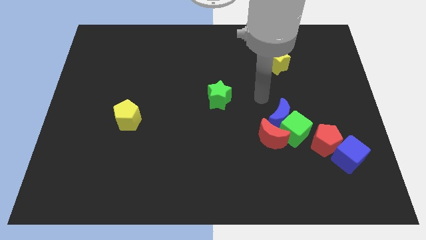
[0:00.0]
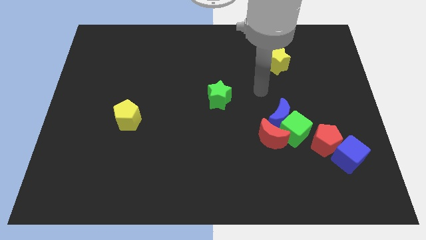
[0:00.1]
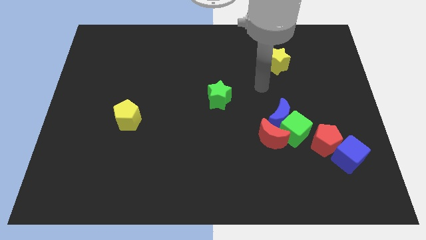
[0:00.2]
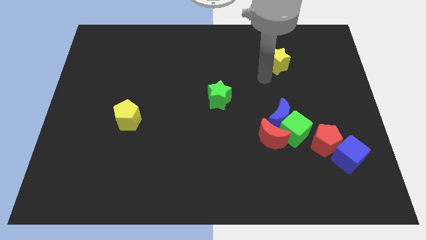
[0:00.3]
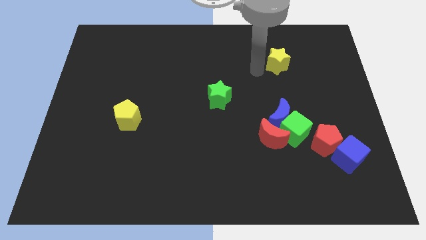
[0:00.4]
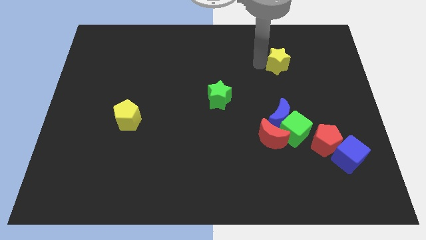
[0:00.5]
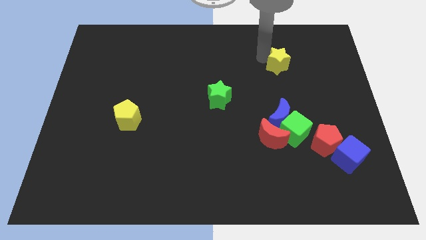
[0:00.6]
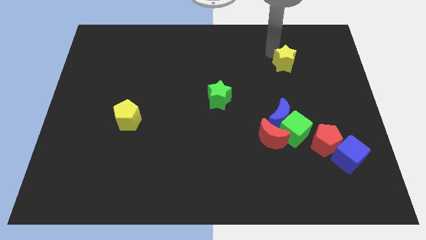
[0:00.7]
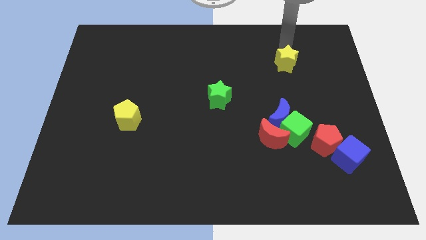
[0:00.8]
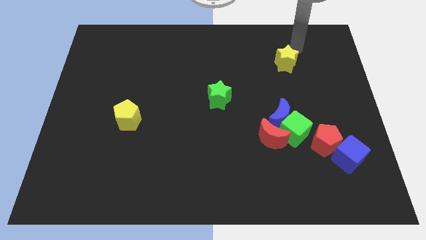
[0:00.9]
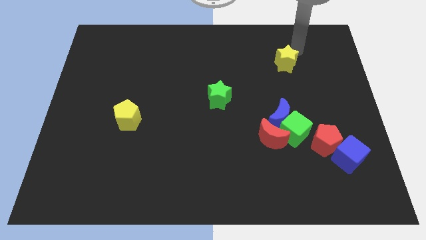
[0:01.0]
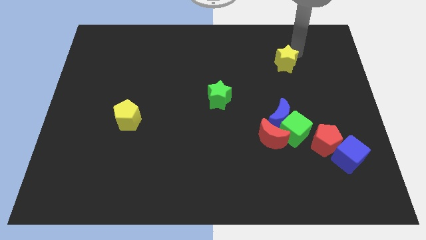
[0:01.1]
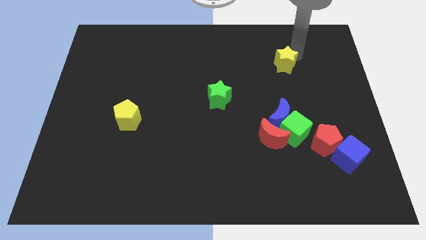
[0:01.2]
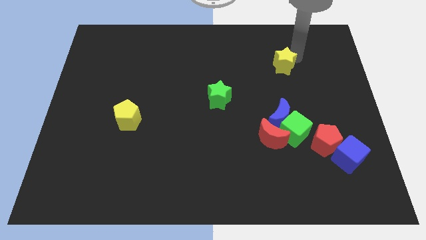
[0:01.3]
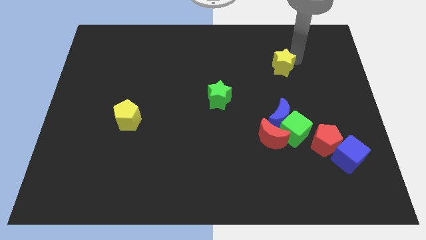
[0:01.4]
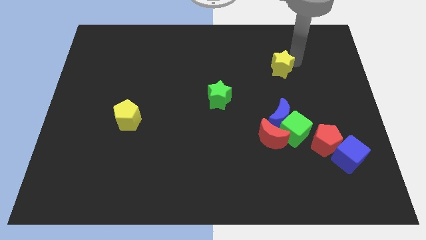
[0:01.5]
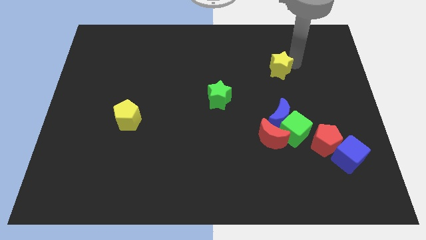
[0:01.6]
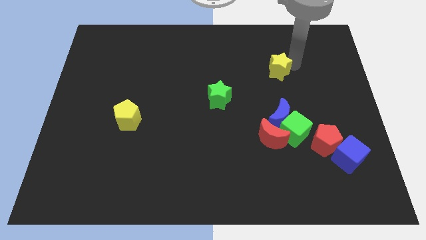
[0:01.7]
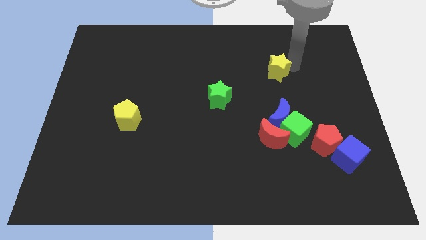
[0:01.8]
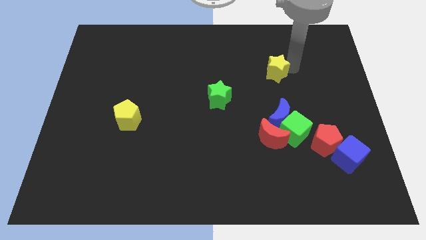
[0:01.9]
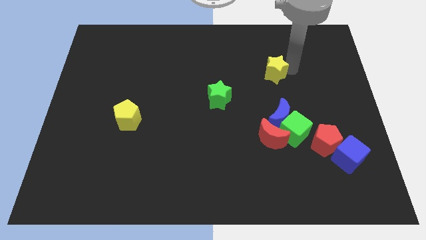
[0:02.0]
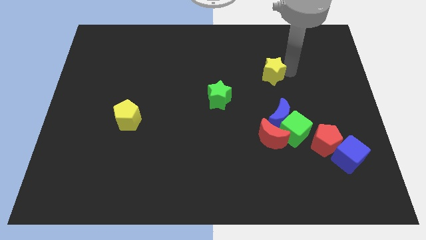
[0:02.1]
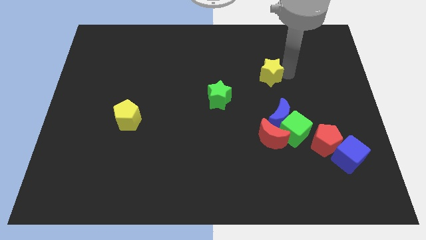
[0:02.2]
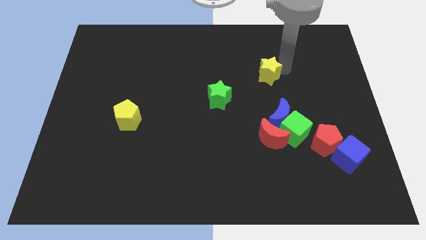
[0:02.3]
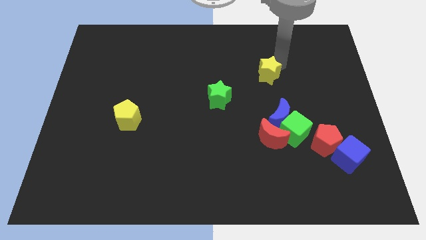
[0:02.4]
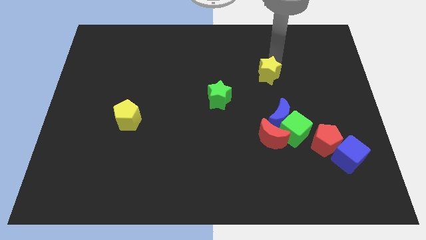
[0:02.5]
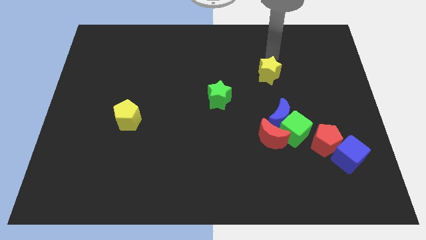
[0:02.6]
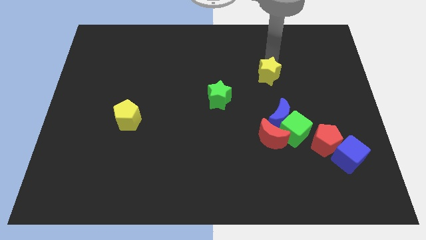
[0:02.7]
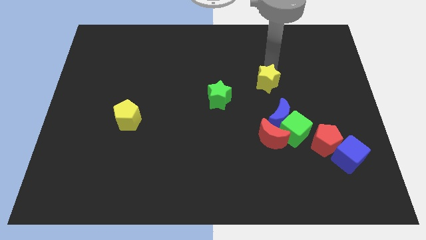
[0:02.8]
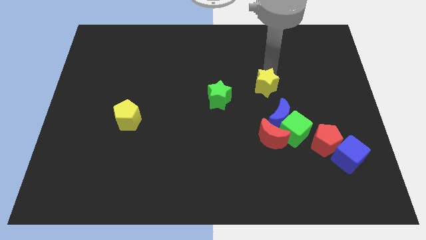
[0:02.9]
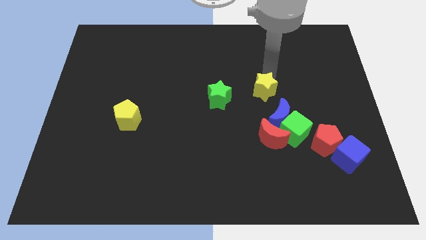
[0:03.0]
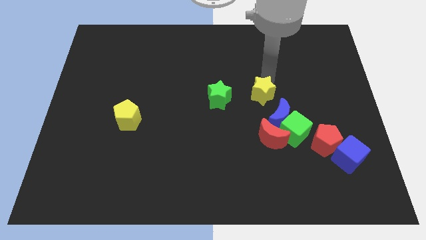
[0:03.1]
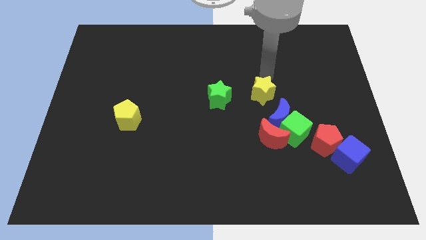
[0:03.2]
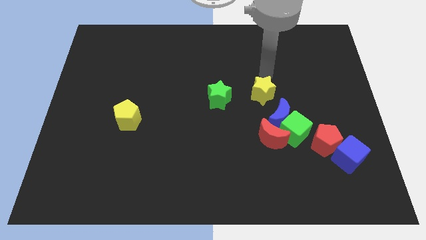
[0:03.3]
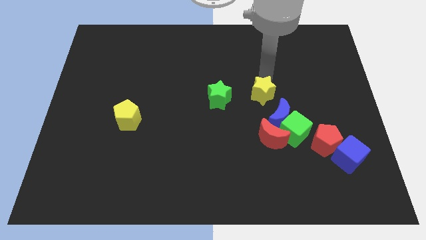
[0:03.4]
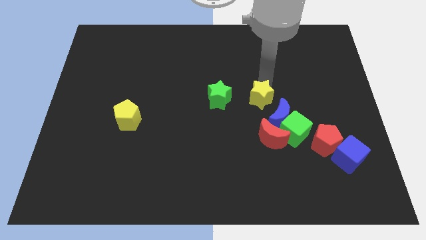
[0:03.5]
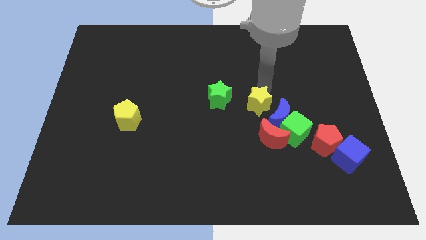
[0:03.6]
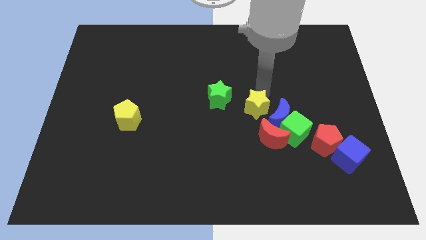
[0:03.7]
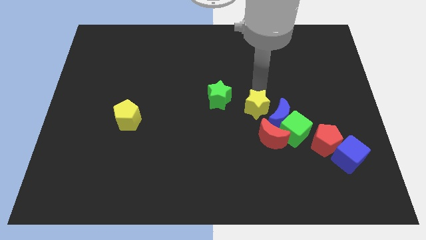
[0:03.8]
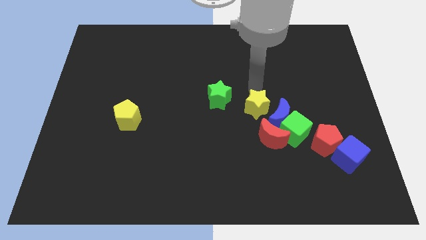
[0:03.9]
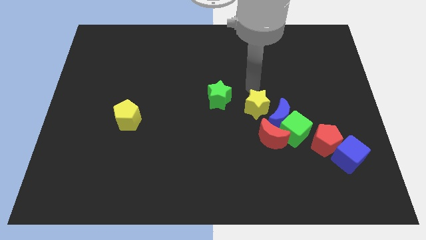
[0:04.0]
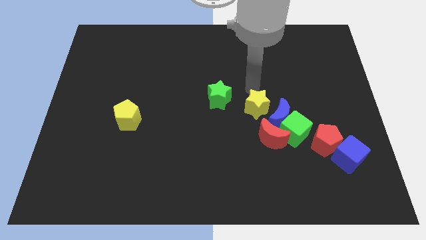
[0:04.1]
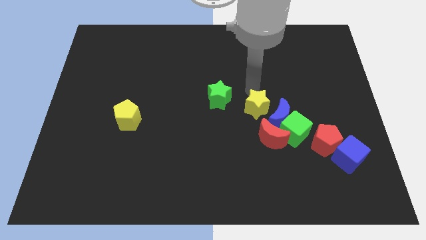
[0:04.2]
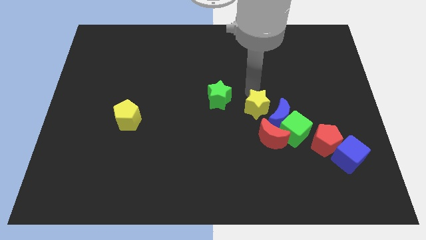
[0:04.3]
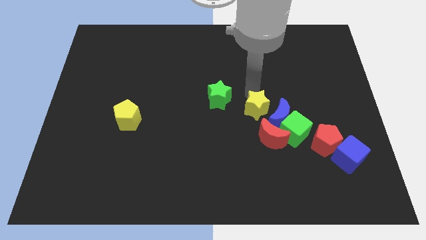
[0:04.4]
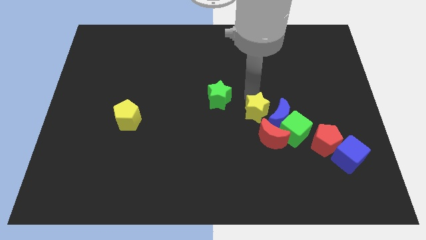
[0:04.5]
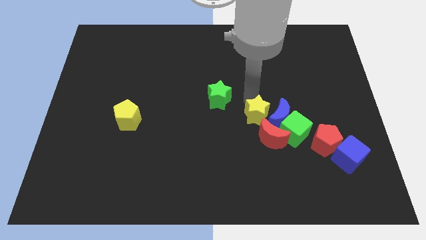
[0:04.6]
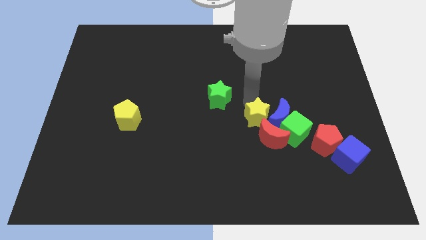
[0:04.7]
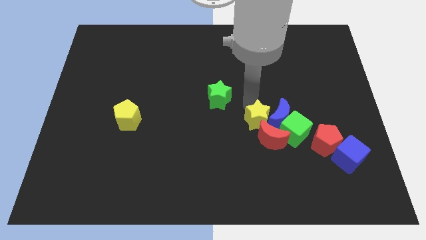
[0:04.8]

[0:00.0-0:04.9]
move the yellow star towards the red moon

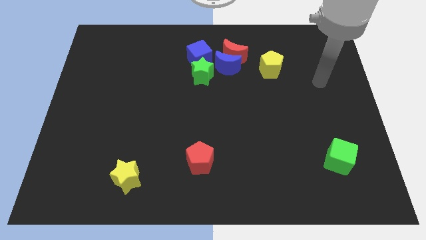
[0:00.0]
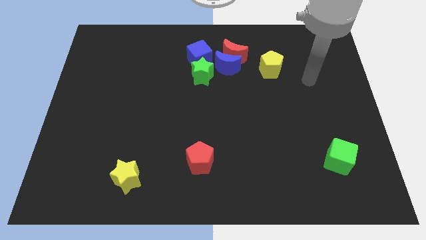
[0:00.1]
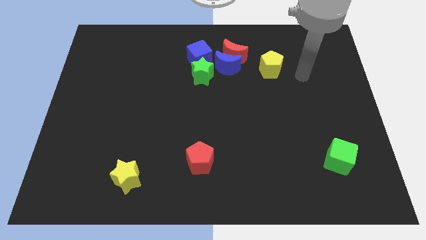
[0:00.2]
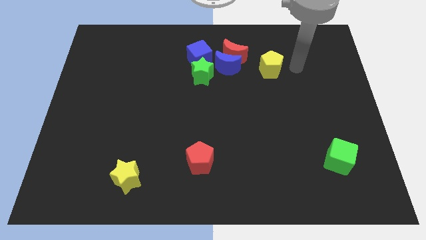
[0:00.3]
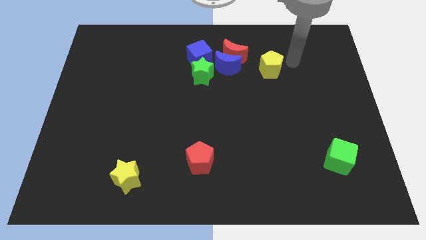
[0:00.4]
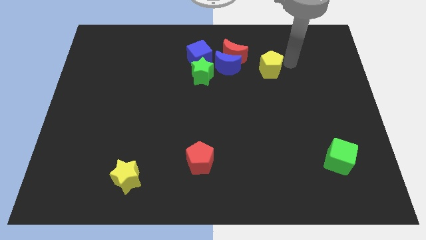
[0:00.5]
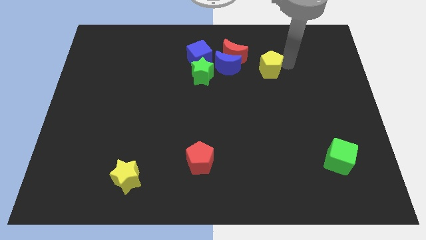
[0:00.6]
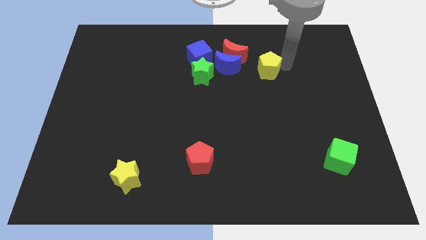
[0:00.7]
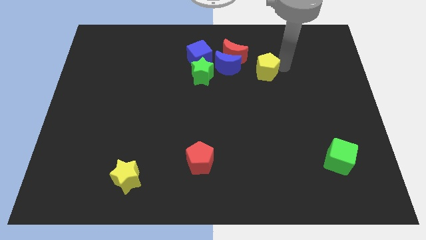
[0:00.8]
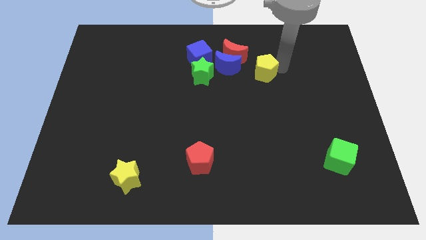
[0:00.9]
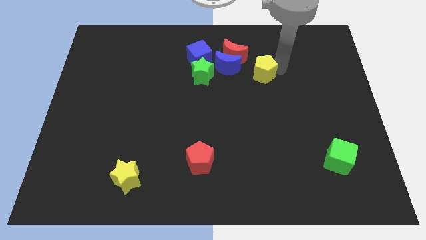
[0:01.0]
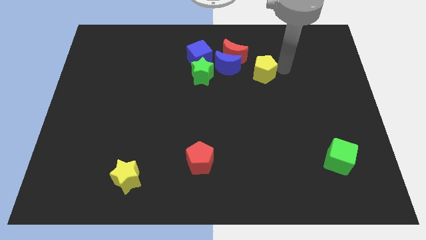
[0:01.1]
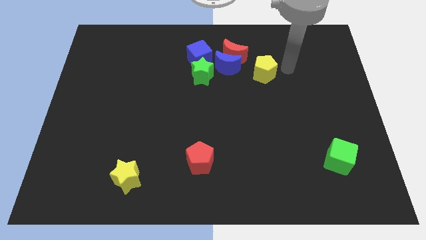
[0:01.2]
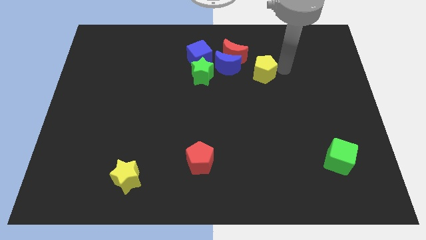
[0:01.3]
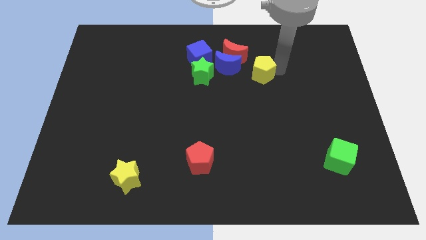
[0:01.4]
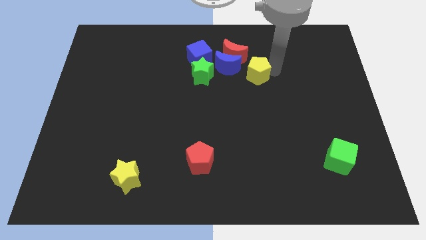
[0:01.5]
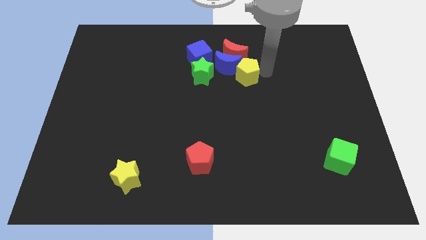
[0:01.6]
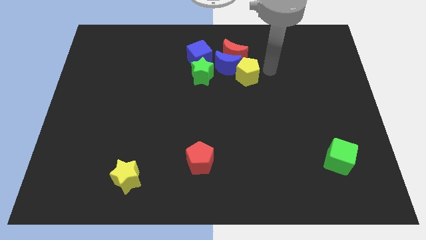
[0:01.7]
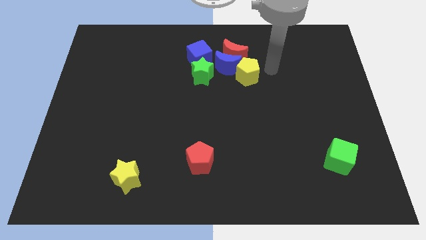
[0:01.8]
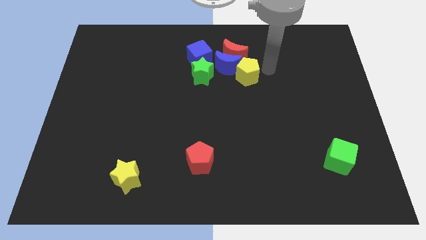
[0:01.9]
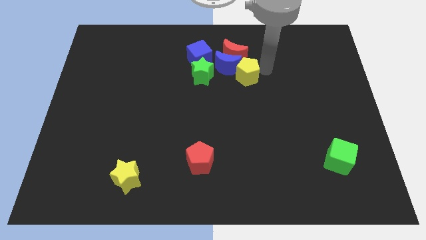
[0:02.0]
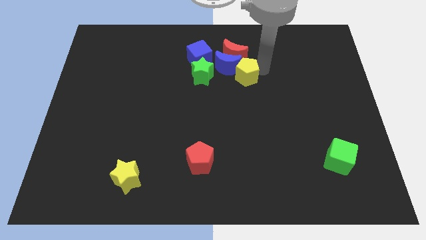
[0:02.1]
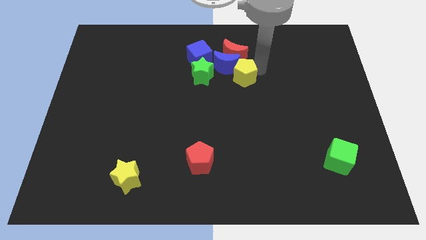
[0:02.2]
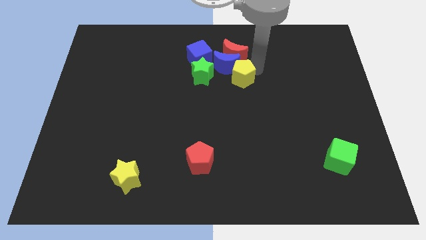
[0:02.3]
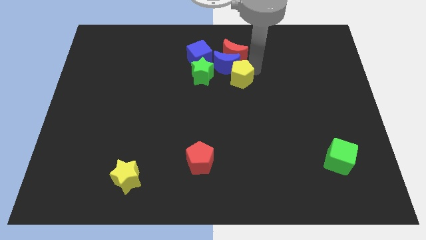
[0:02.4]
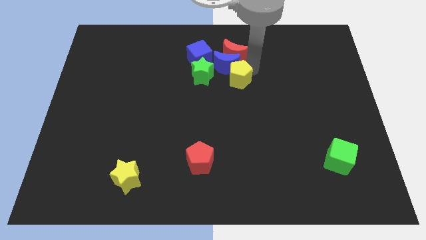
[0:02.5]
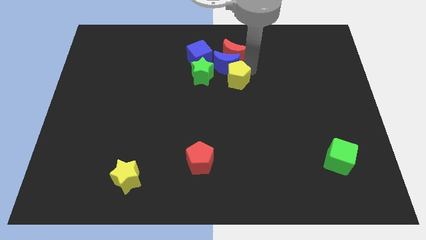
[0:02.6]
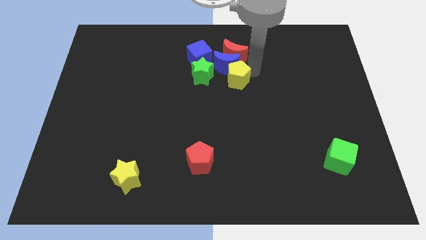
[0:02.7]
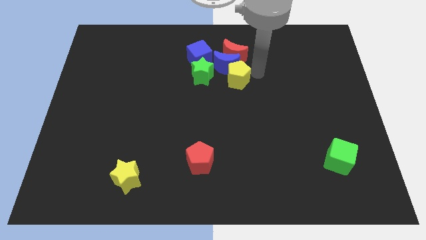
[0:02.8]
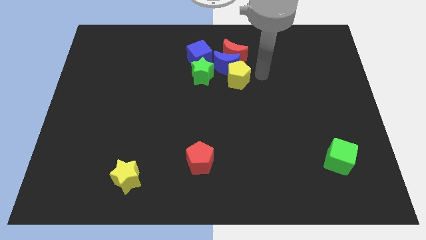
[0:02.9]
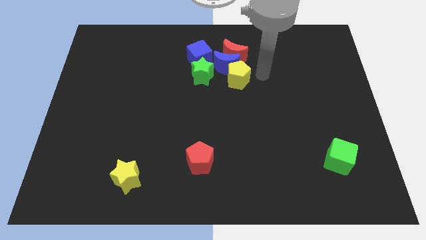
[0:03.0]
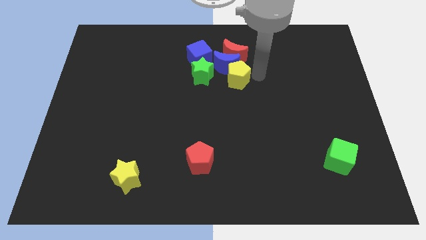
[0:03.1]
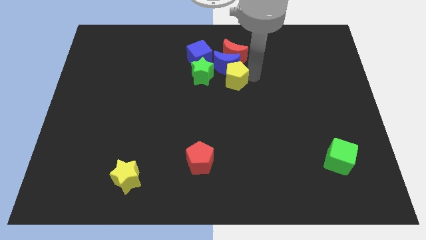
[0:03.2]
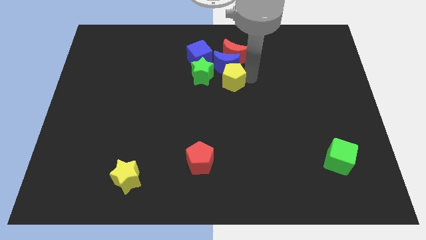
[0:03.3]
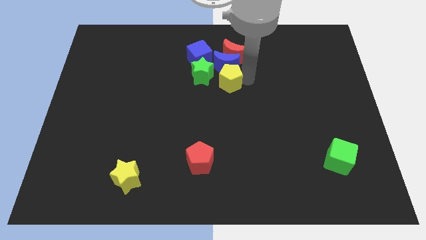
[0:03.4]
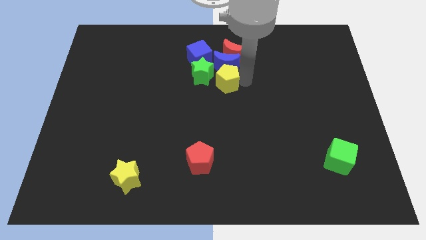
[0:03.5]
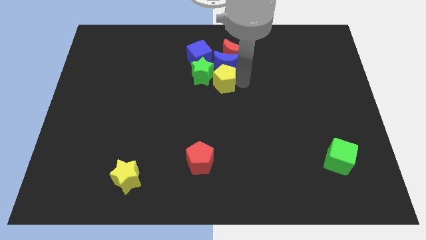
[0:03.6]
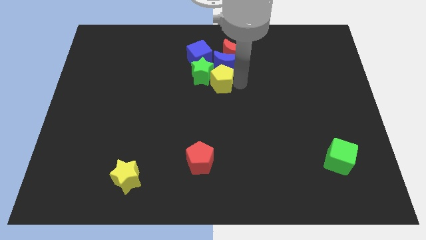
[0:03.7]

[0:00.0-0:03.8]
move the yellow pentagon close to the green star
